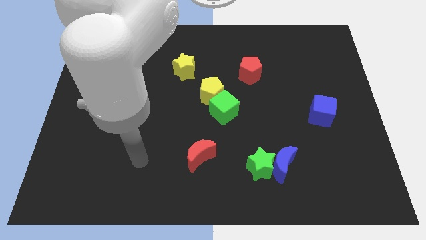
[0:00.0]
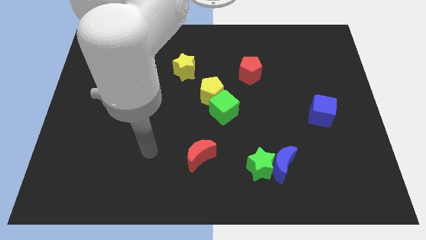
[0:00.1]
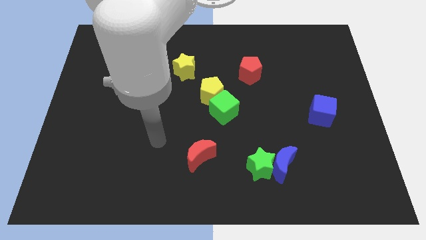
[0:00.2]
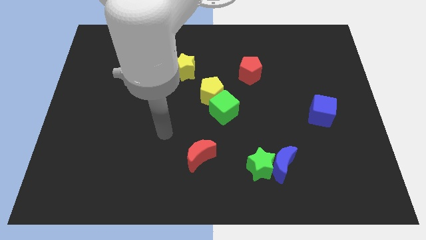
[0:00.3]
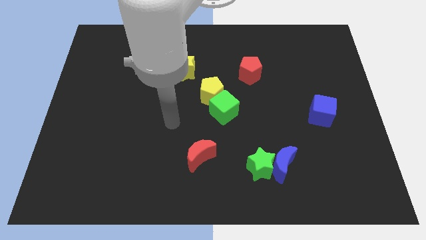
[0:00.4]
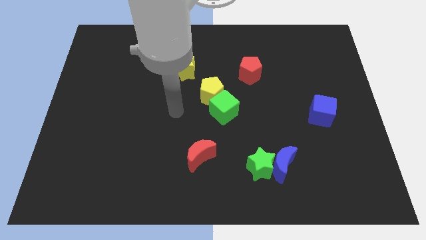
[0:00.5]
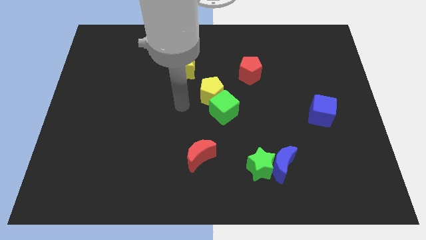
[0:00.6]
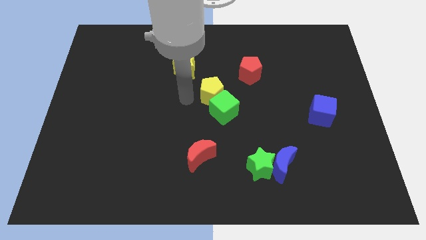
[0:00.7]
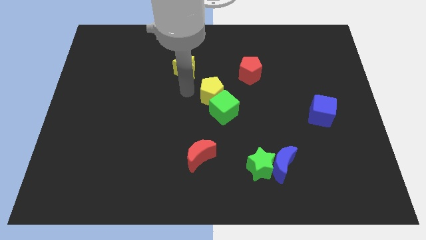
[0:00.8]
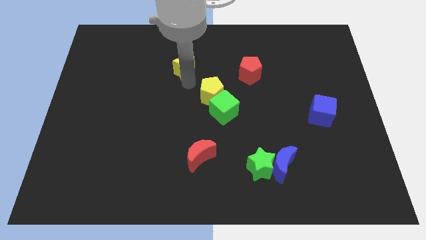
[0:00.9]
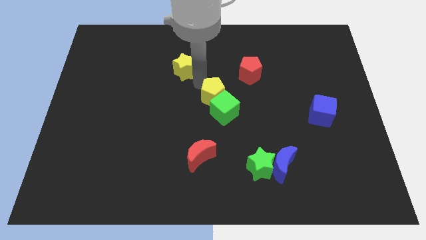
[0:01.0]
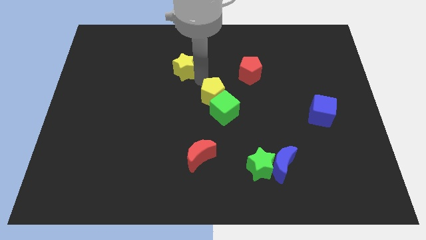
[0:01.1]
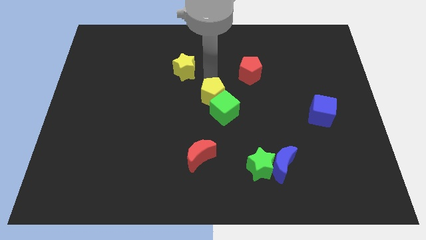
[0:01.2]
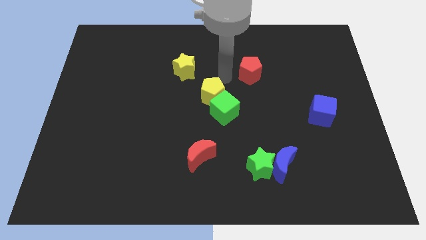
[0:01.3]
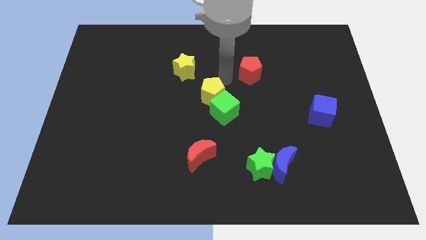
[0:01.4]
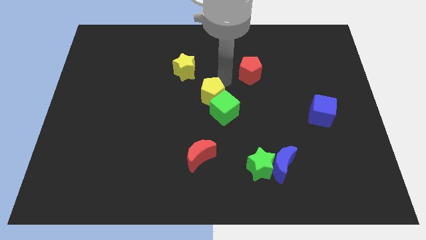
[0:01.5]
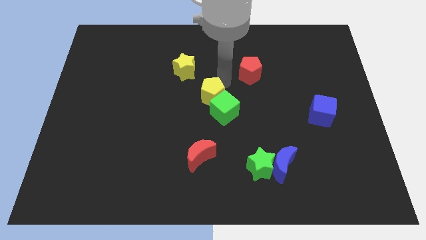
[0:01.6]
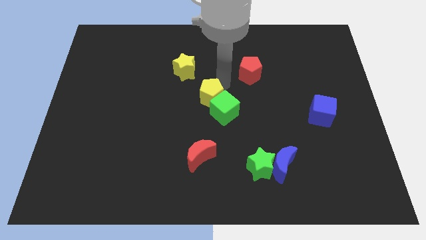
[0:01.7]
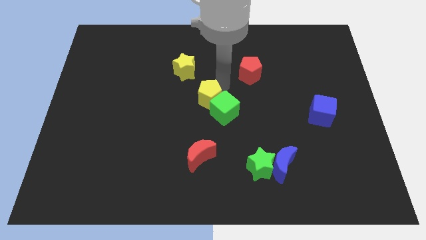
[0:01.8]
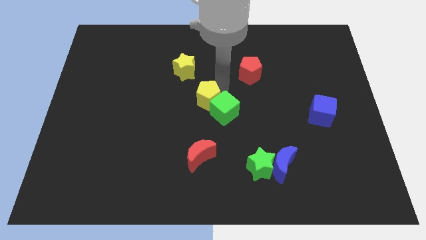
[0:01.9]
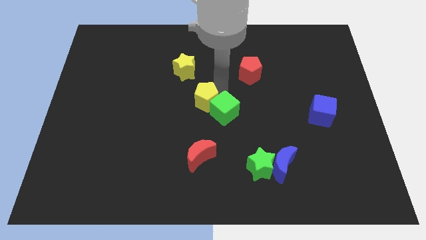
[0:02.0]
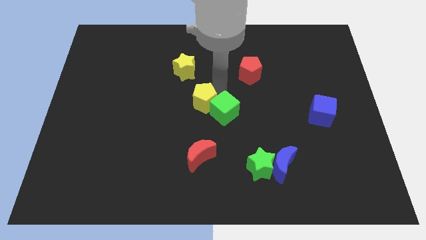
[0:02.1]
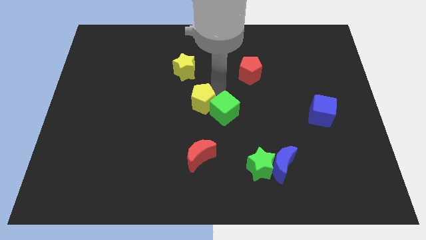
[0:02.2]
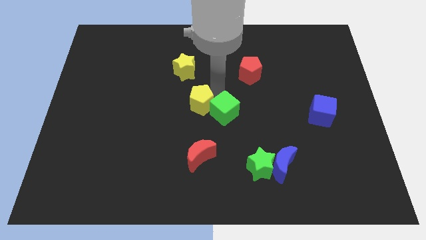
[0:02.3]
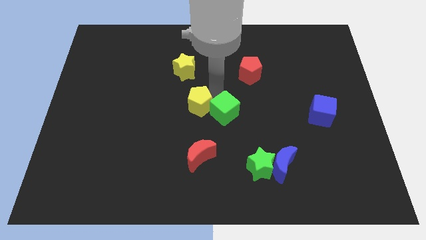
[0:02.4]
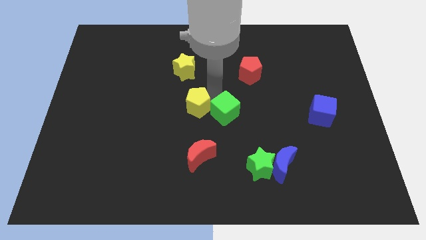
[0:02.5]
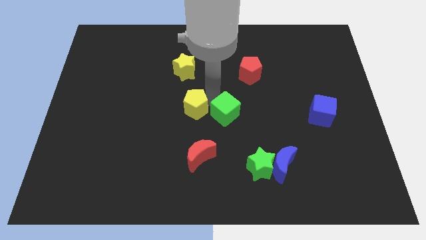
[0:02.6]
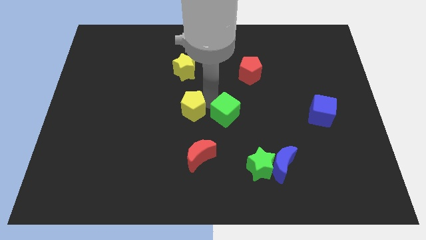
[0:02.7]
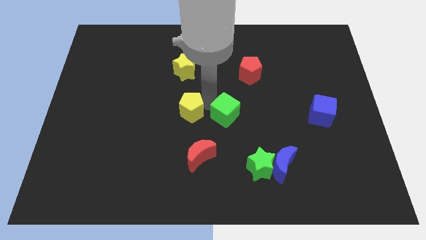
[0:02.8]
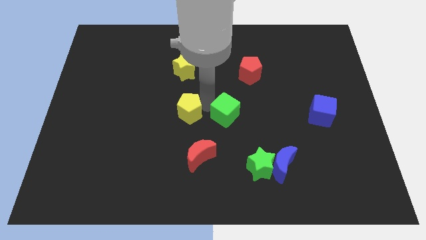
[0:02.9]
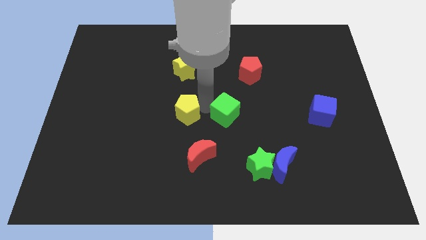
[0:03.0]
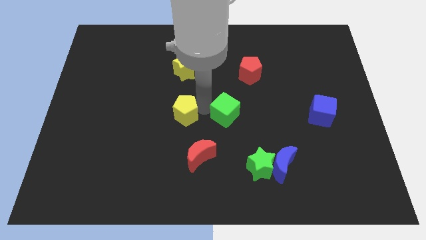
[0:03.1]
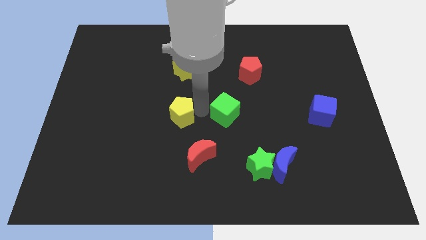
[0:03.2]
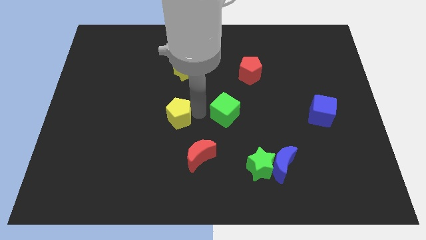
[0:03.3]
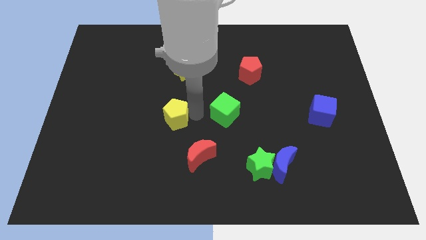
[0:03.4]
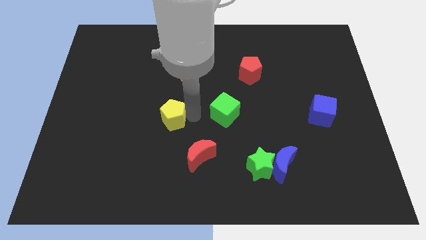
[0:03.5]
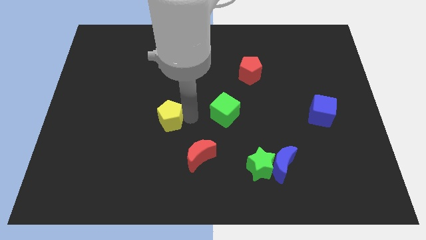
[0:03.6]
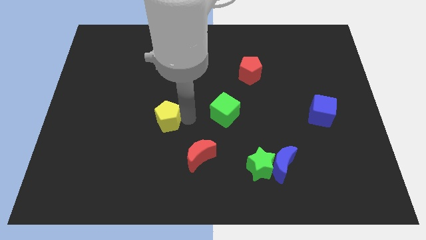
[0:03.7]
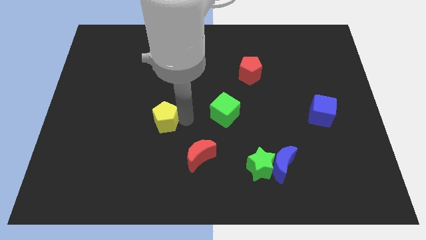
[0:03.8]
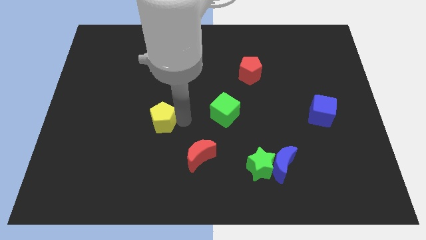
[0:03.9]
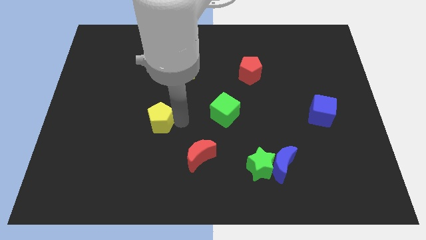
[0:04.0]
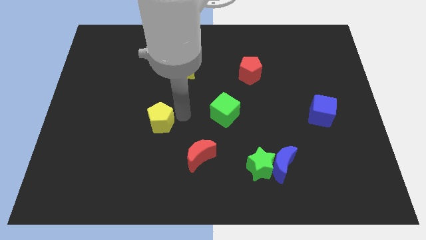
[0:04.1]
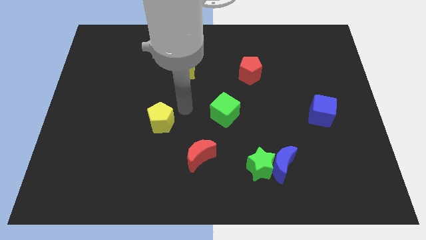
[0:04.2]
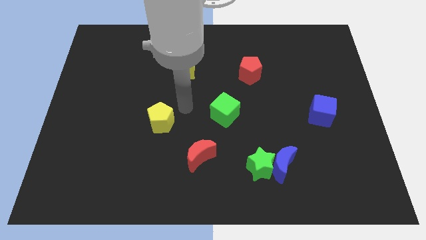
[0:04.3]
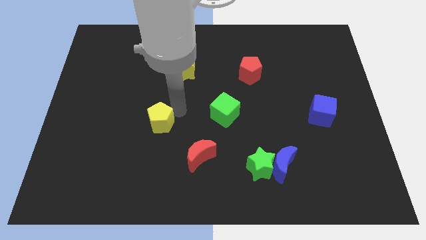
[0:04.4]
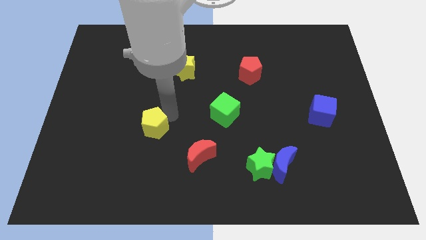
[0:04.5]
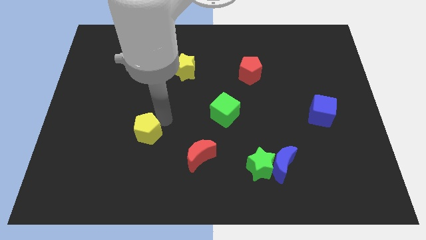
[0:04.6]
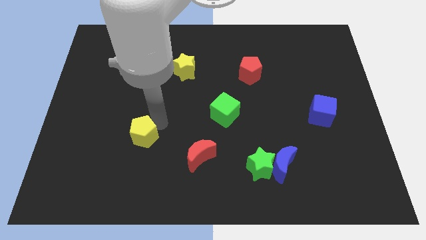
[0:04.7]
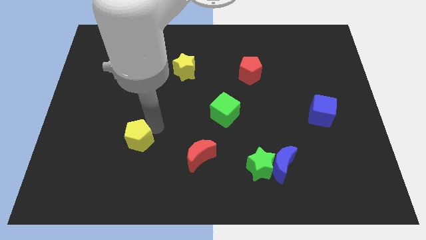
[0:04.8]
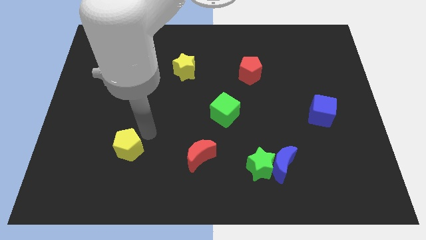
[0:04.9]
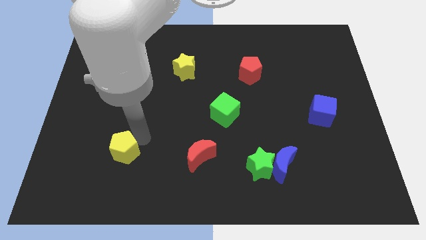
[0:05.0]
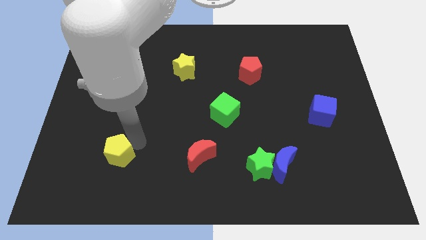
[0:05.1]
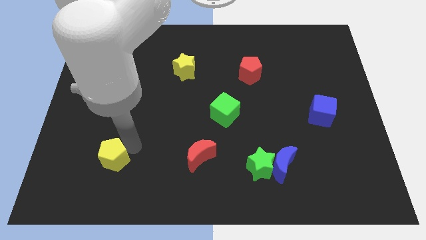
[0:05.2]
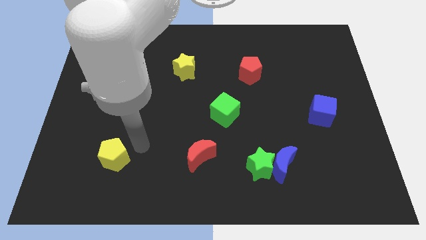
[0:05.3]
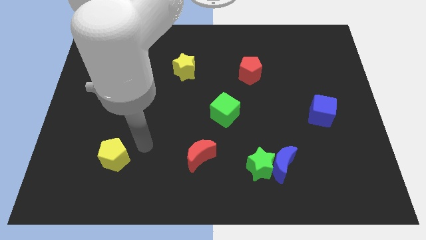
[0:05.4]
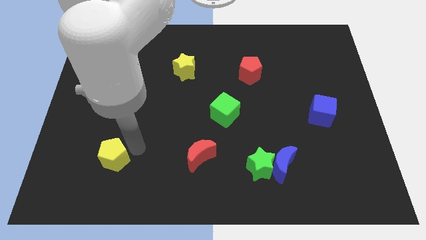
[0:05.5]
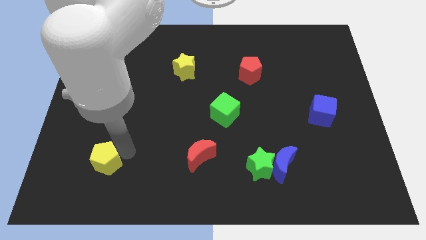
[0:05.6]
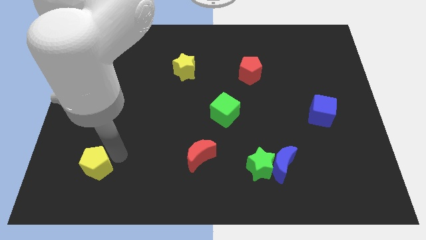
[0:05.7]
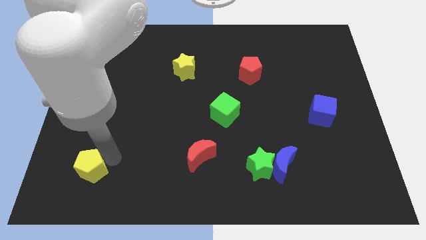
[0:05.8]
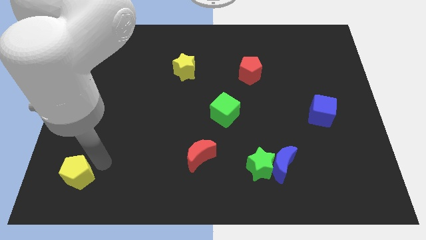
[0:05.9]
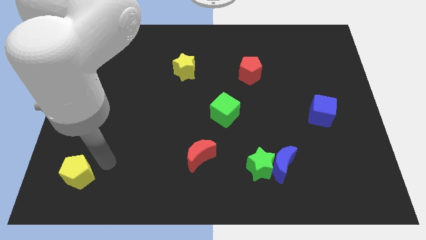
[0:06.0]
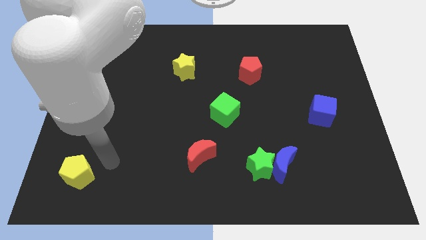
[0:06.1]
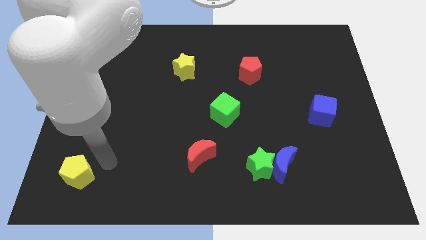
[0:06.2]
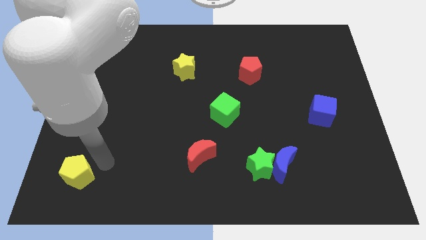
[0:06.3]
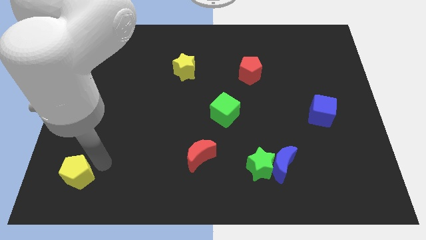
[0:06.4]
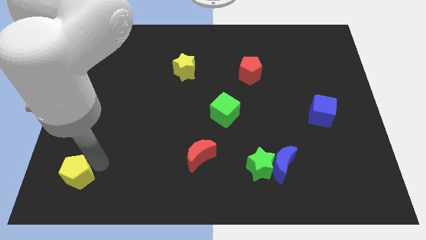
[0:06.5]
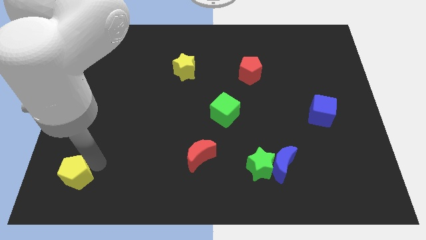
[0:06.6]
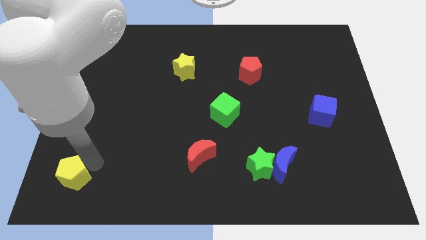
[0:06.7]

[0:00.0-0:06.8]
put the yellow pentagon to the bottom left corner
